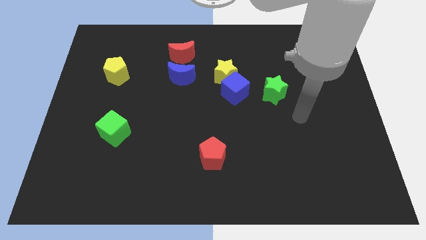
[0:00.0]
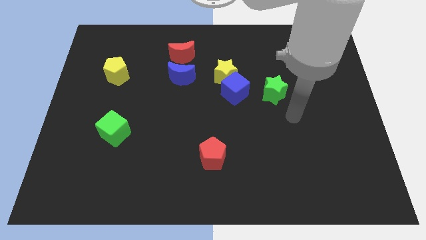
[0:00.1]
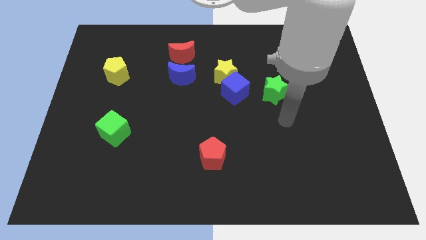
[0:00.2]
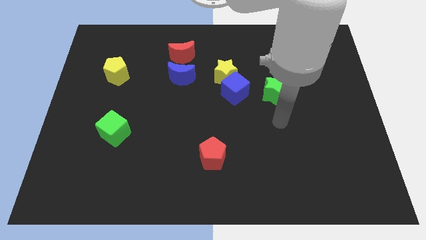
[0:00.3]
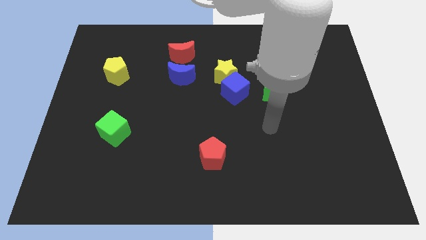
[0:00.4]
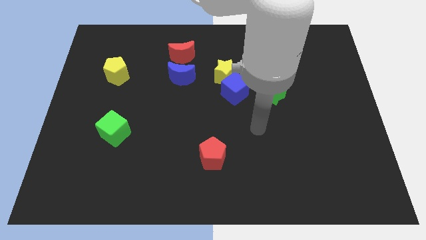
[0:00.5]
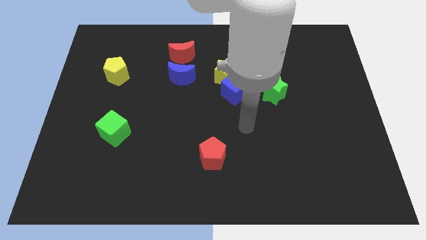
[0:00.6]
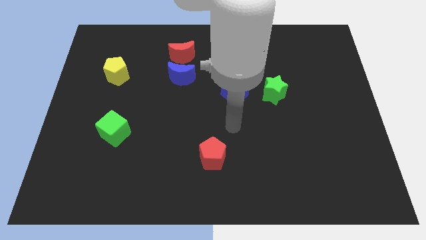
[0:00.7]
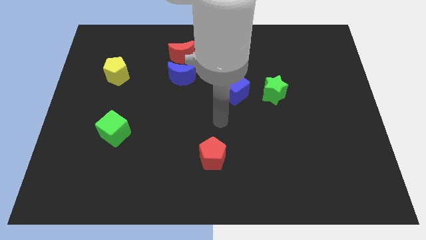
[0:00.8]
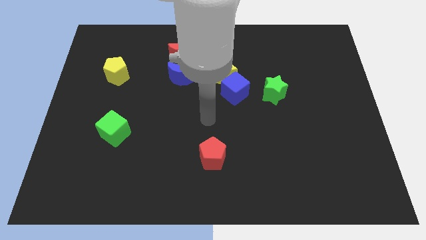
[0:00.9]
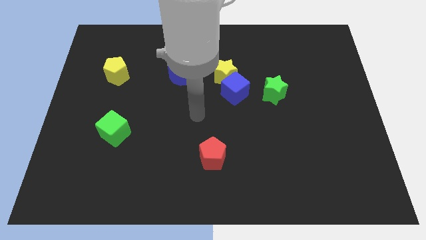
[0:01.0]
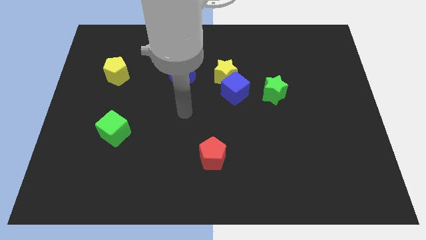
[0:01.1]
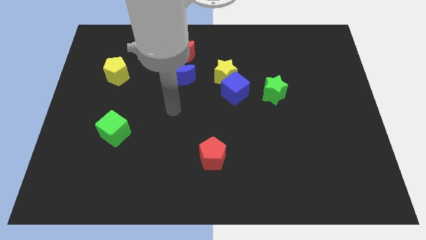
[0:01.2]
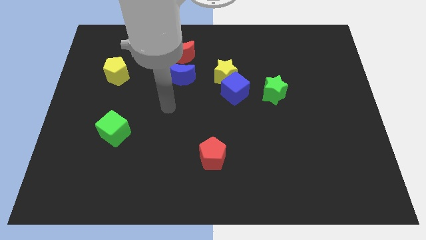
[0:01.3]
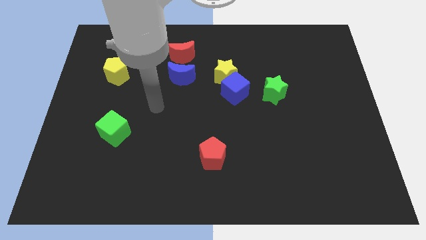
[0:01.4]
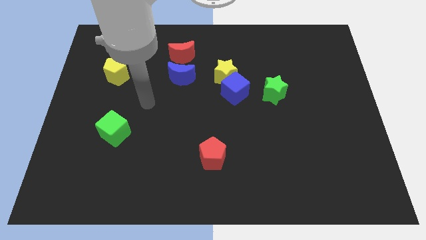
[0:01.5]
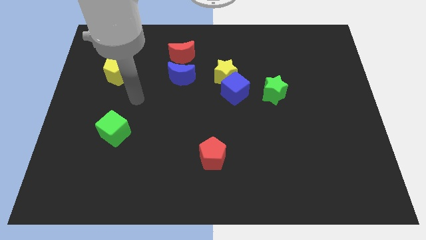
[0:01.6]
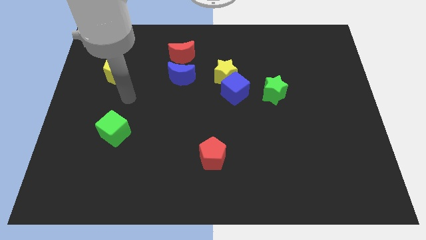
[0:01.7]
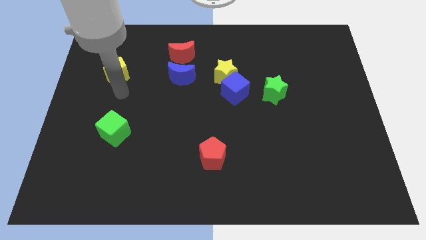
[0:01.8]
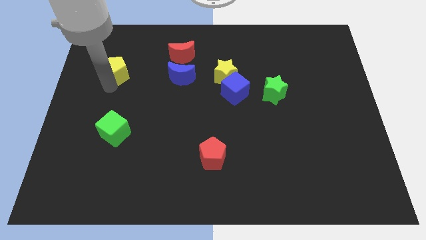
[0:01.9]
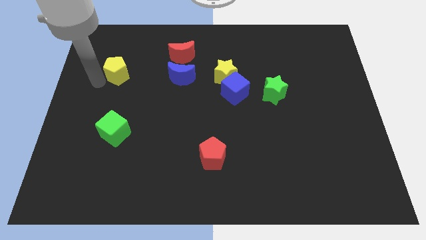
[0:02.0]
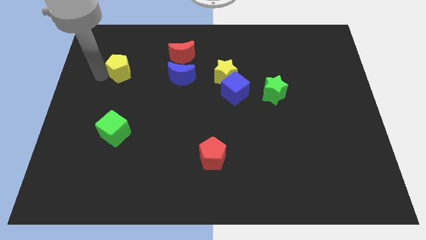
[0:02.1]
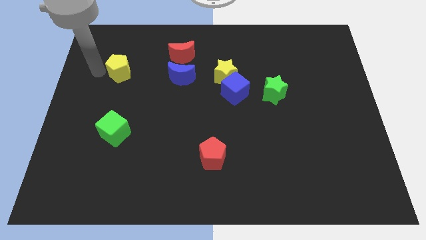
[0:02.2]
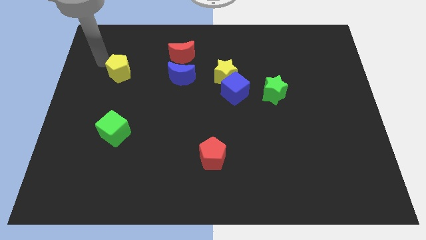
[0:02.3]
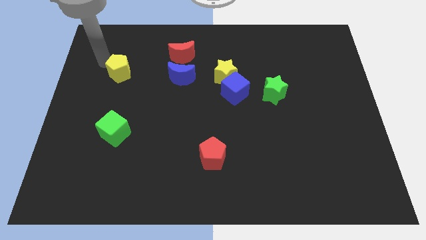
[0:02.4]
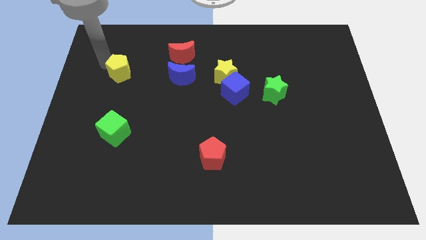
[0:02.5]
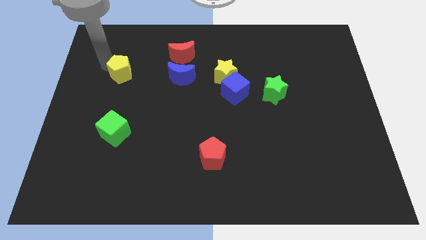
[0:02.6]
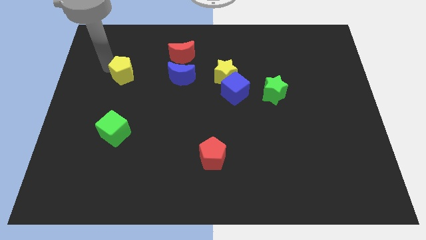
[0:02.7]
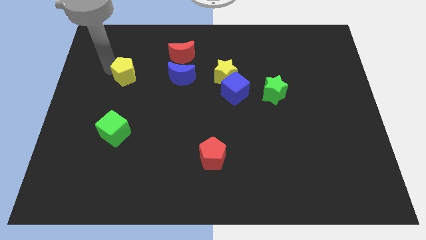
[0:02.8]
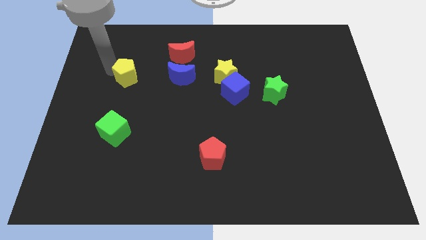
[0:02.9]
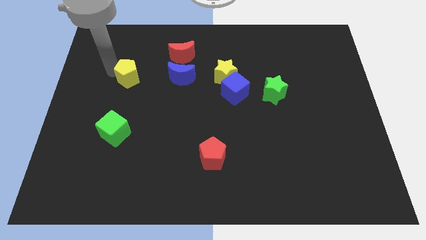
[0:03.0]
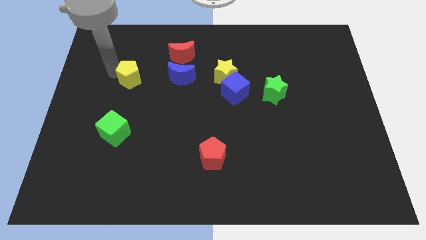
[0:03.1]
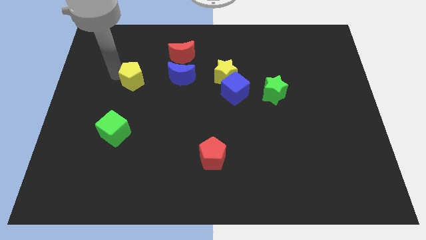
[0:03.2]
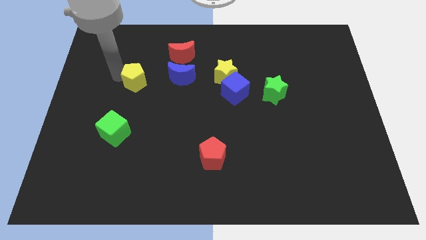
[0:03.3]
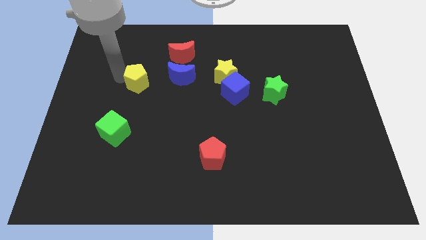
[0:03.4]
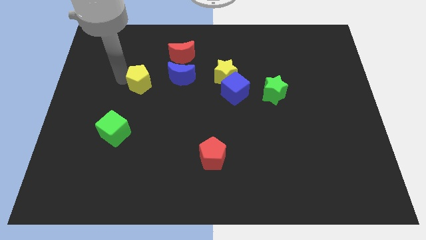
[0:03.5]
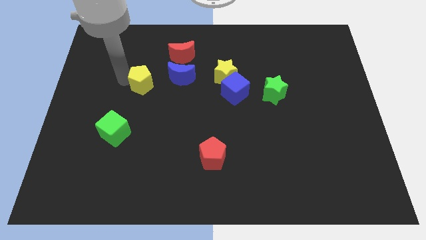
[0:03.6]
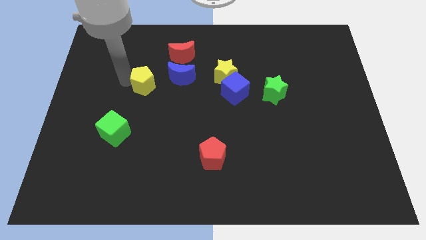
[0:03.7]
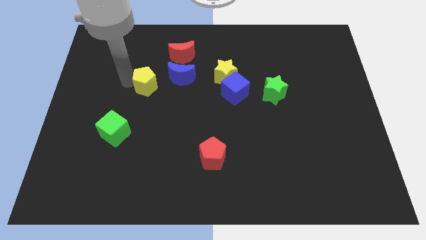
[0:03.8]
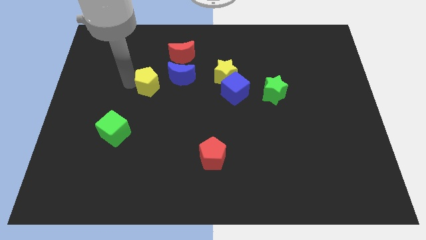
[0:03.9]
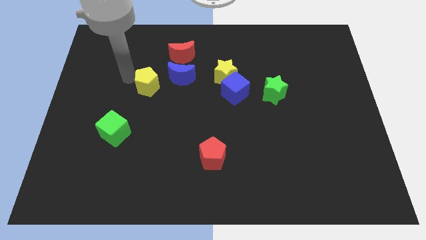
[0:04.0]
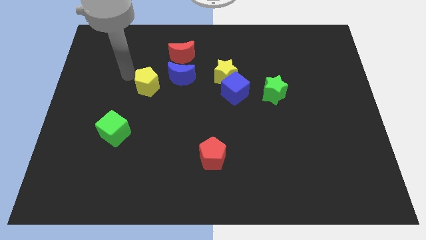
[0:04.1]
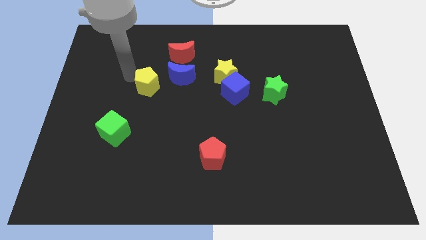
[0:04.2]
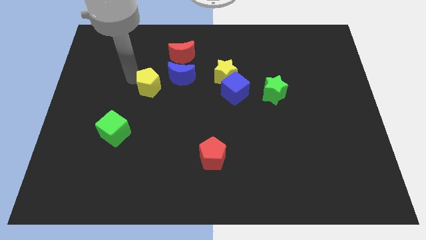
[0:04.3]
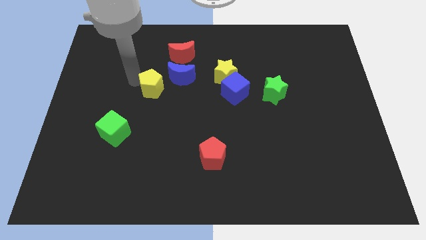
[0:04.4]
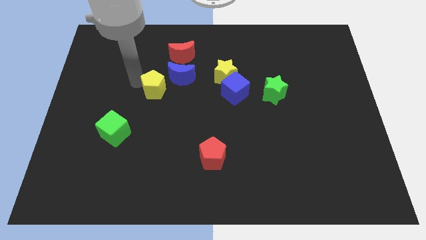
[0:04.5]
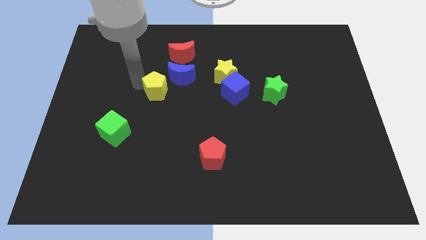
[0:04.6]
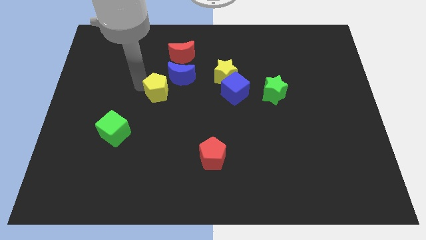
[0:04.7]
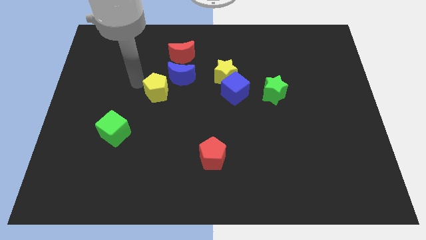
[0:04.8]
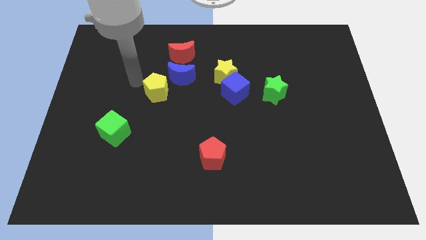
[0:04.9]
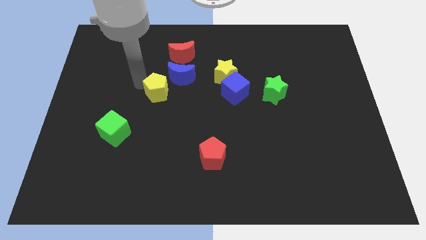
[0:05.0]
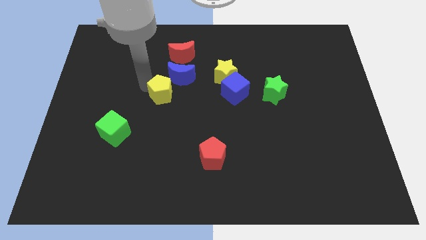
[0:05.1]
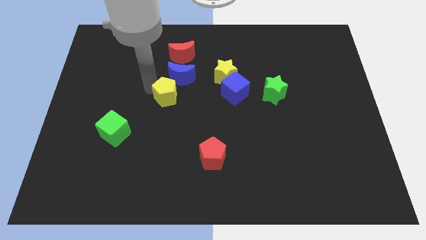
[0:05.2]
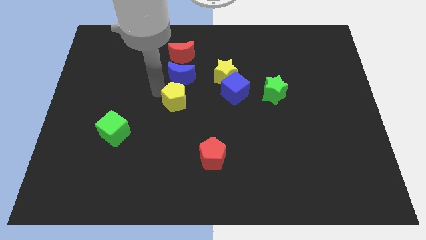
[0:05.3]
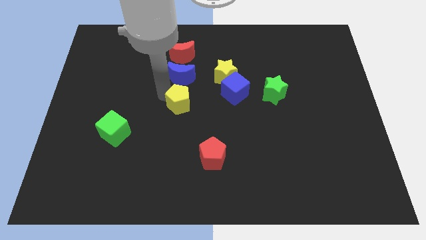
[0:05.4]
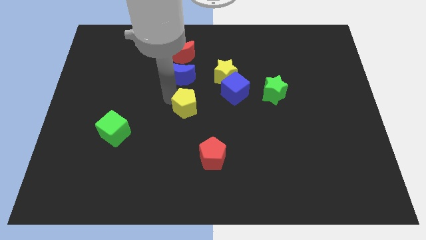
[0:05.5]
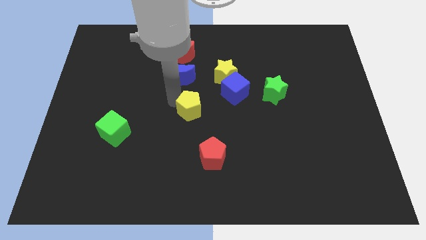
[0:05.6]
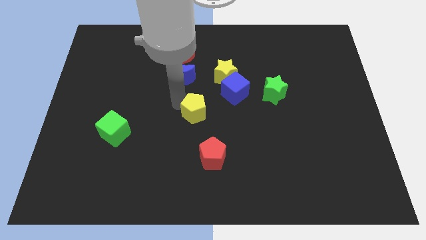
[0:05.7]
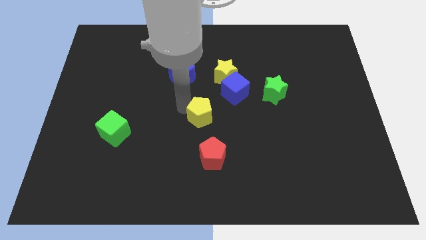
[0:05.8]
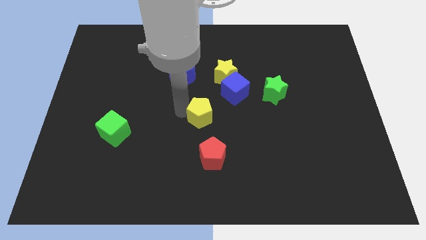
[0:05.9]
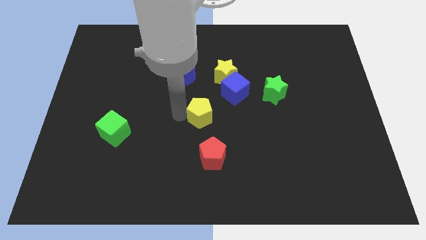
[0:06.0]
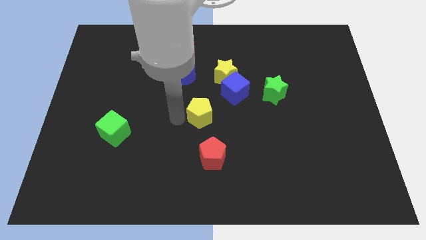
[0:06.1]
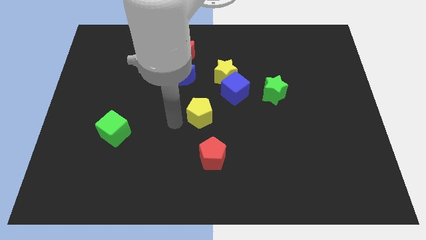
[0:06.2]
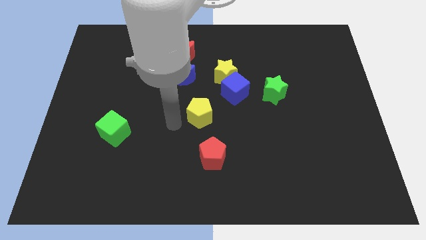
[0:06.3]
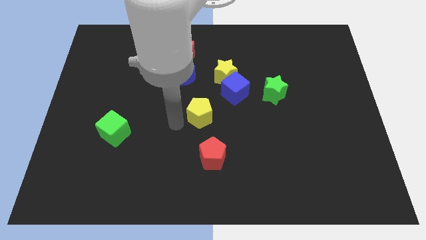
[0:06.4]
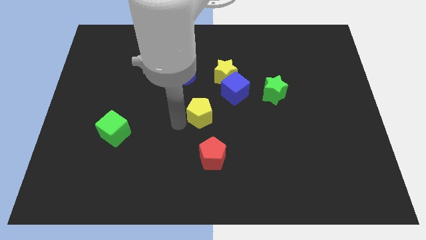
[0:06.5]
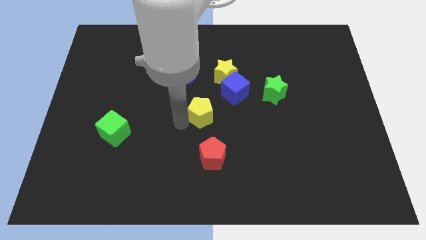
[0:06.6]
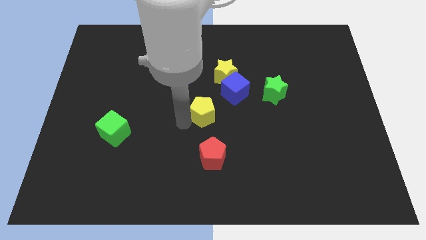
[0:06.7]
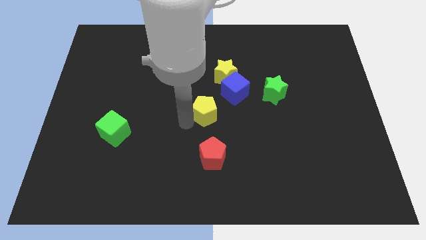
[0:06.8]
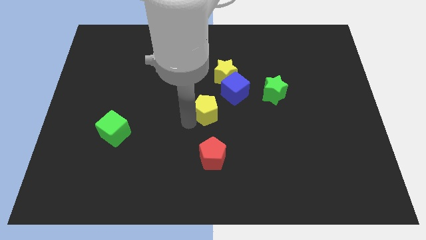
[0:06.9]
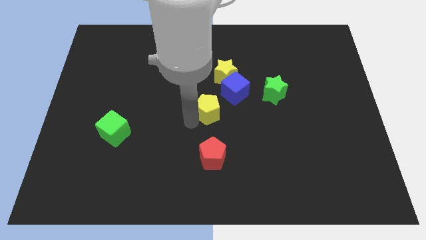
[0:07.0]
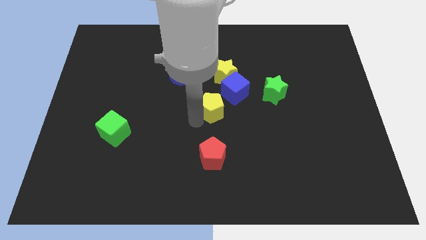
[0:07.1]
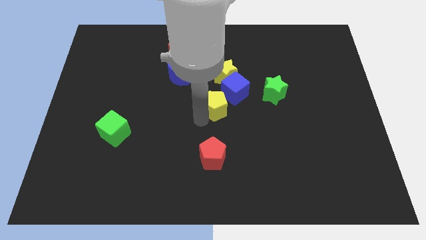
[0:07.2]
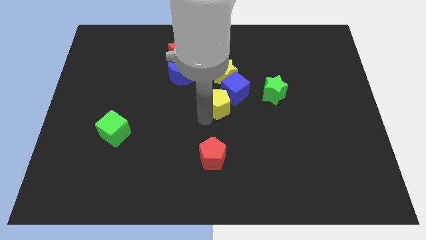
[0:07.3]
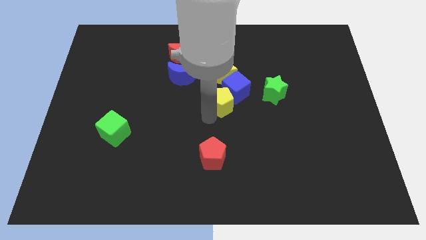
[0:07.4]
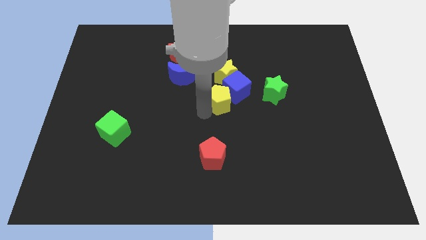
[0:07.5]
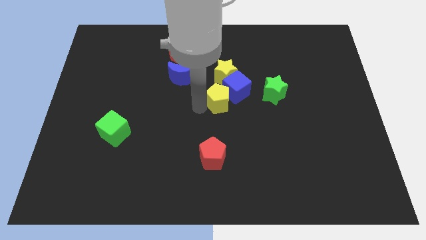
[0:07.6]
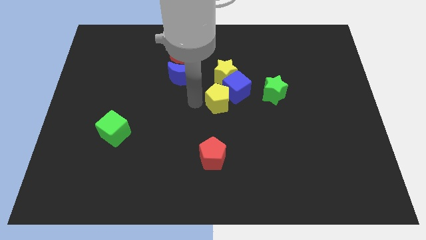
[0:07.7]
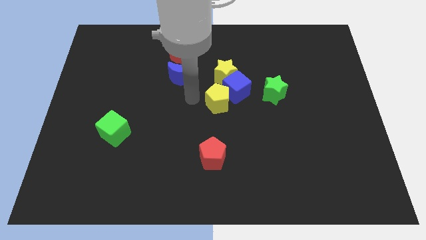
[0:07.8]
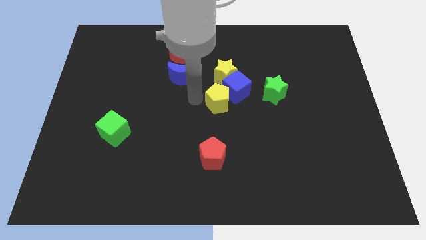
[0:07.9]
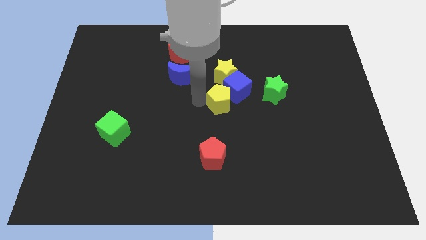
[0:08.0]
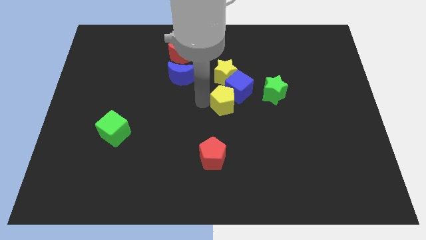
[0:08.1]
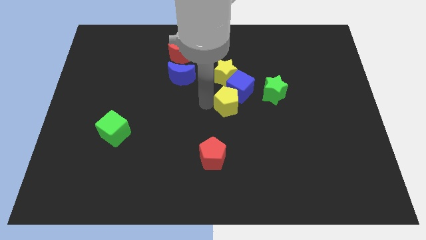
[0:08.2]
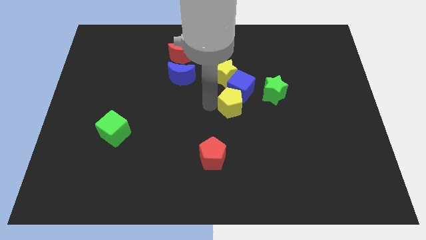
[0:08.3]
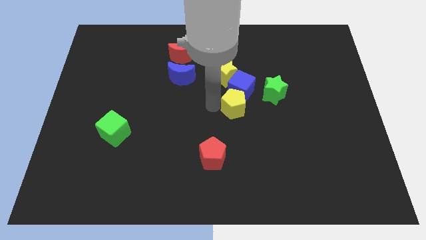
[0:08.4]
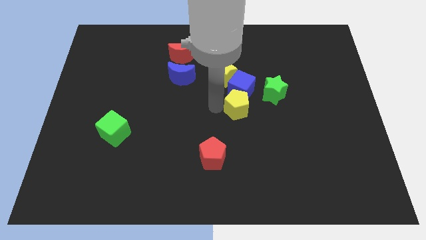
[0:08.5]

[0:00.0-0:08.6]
slide the yellow pentagon to the bottom right of the blue cube
